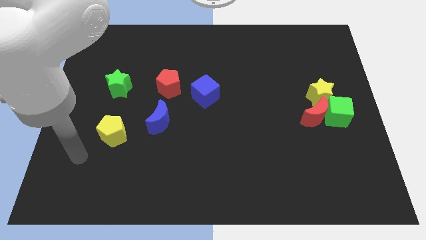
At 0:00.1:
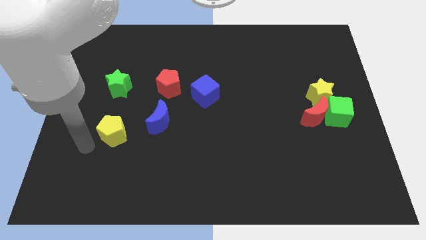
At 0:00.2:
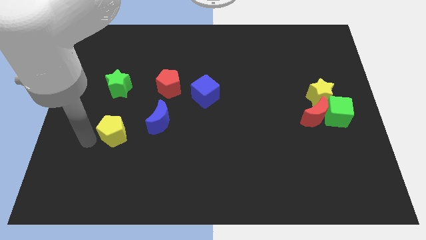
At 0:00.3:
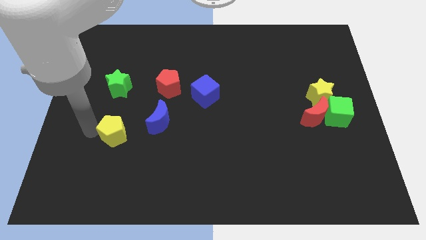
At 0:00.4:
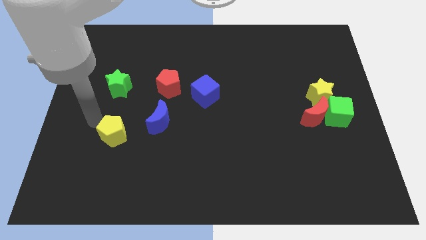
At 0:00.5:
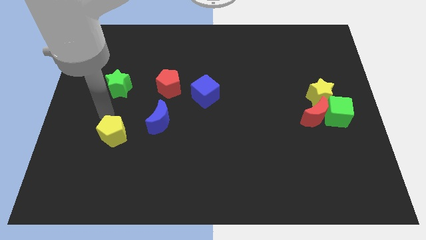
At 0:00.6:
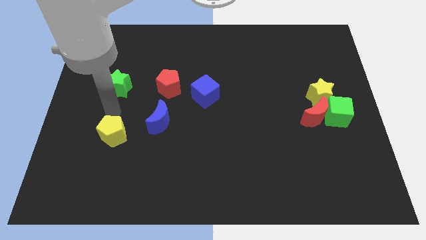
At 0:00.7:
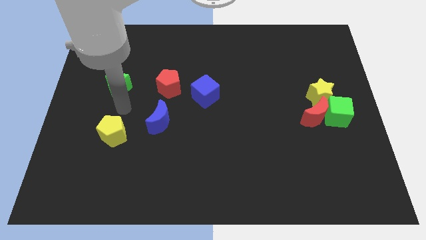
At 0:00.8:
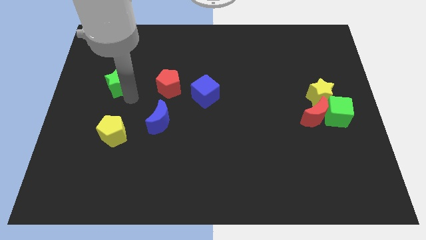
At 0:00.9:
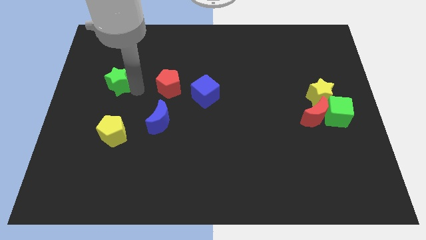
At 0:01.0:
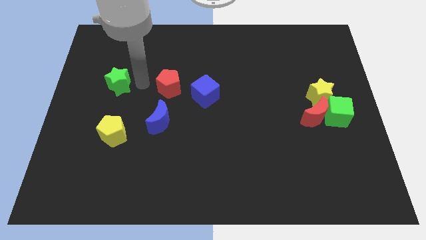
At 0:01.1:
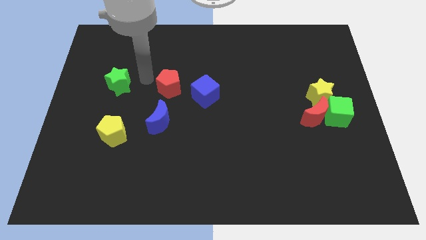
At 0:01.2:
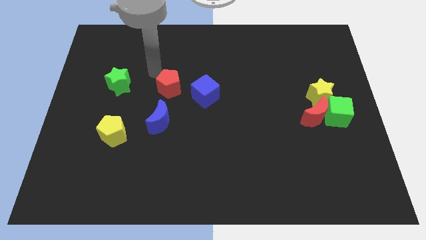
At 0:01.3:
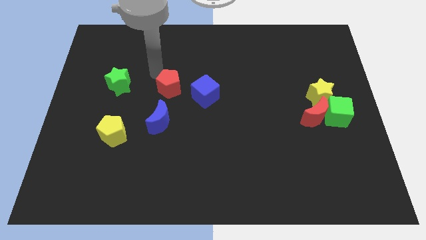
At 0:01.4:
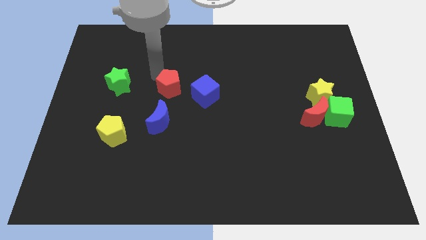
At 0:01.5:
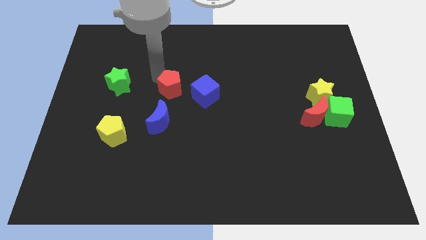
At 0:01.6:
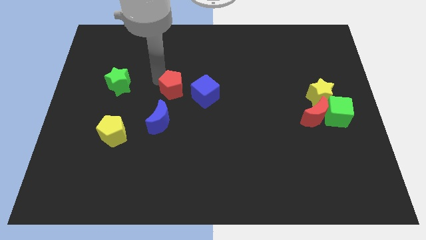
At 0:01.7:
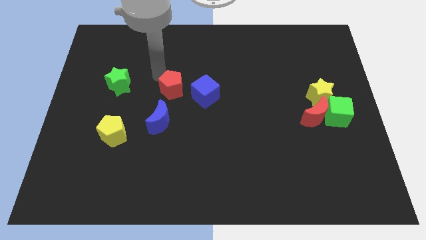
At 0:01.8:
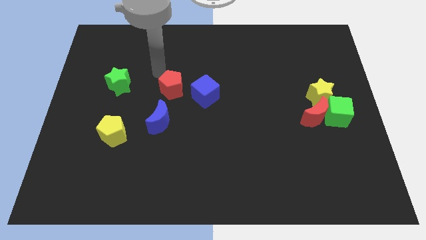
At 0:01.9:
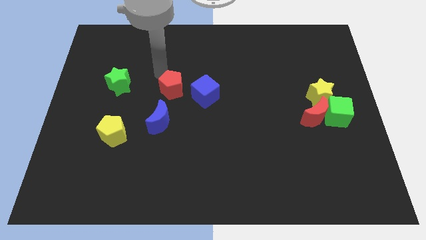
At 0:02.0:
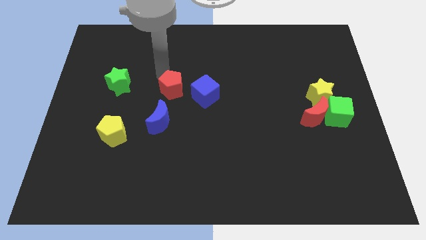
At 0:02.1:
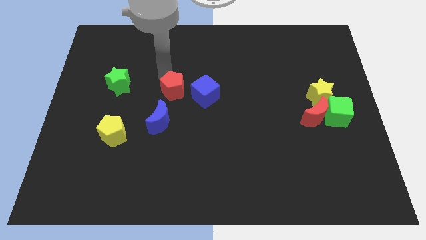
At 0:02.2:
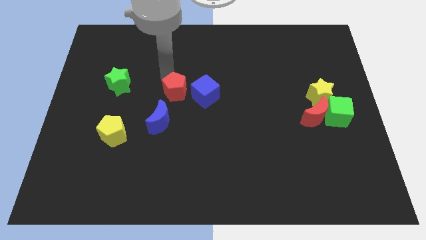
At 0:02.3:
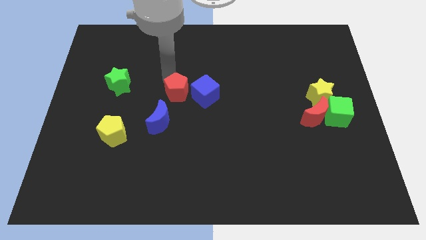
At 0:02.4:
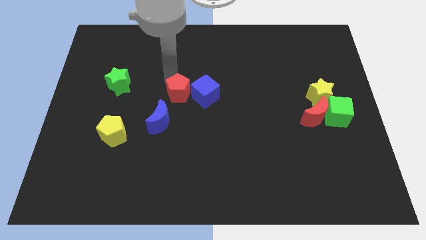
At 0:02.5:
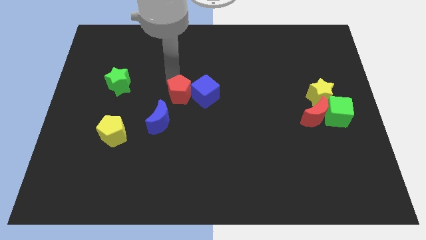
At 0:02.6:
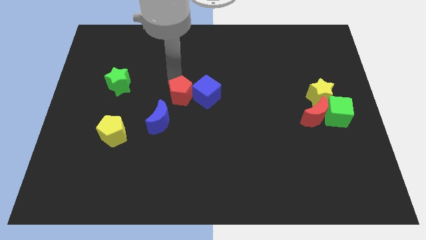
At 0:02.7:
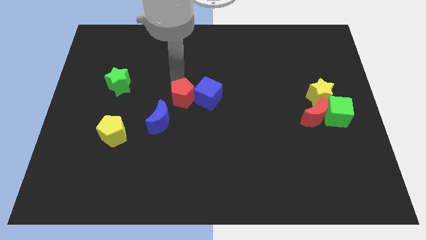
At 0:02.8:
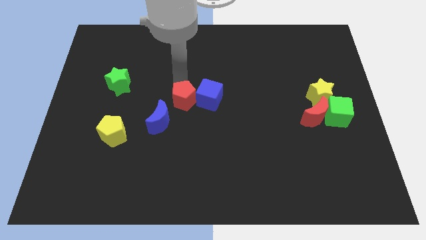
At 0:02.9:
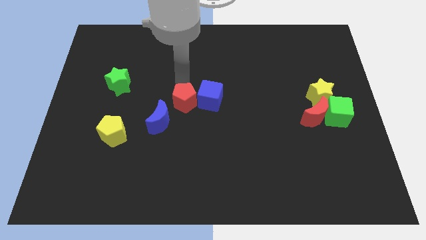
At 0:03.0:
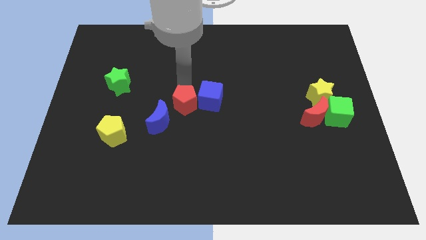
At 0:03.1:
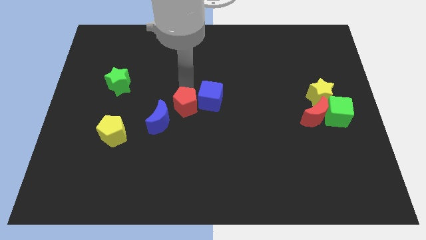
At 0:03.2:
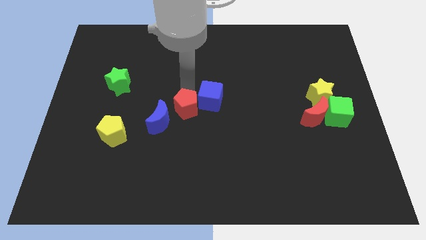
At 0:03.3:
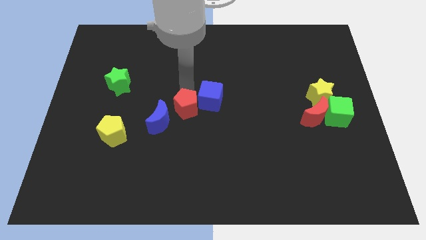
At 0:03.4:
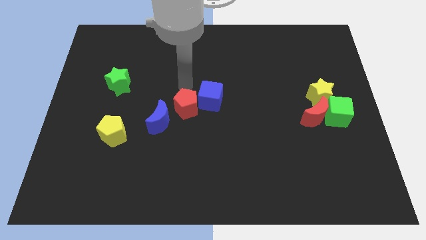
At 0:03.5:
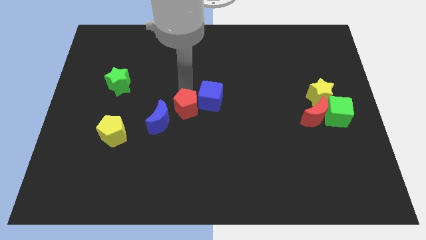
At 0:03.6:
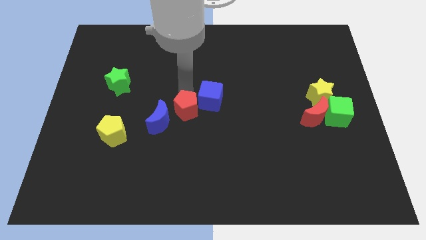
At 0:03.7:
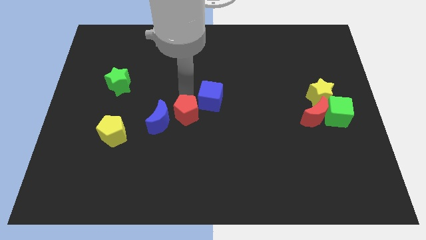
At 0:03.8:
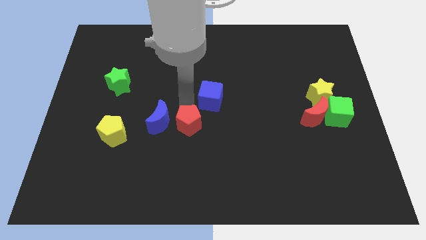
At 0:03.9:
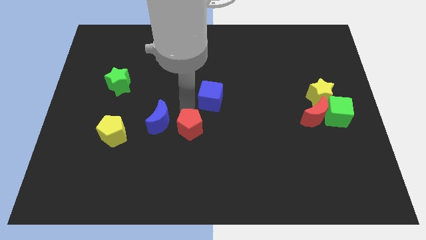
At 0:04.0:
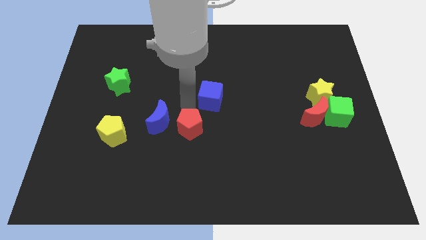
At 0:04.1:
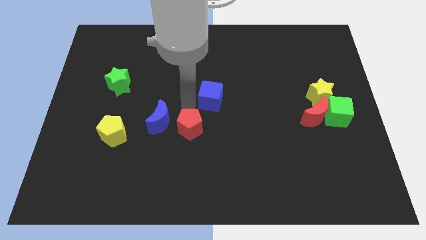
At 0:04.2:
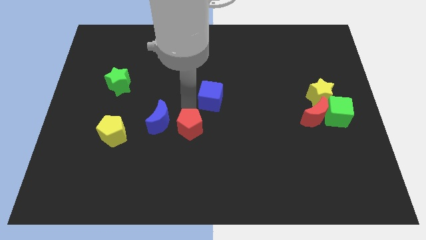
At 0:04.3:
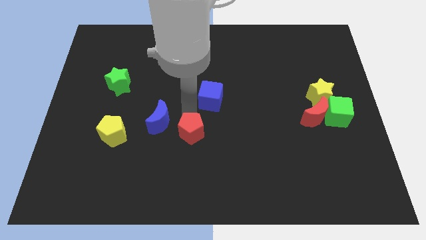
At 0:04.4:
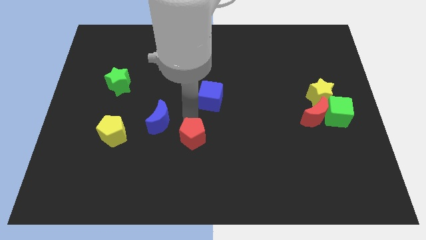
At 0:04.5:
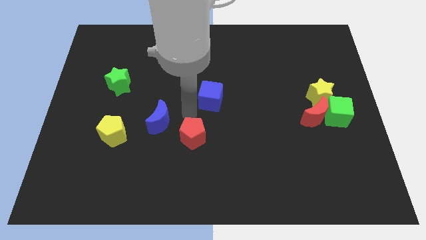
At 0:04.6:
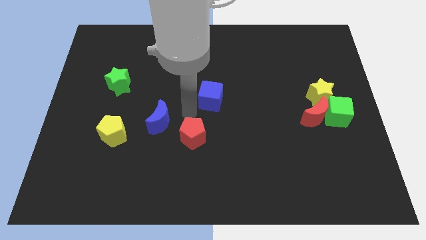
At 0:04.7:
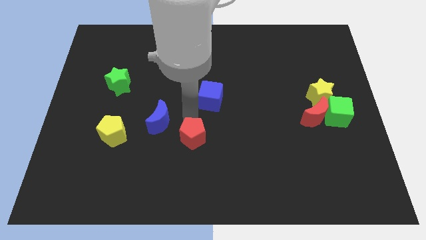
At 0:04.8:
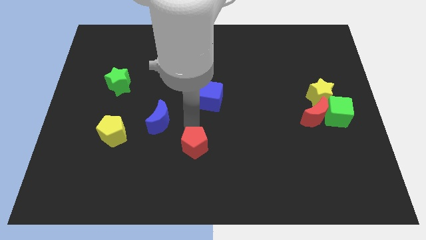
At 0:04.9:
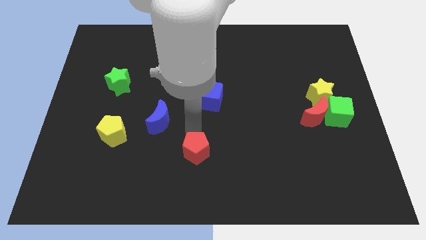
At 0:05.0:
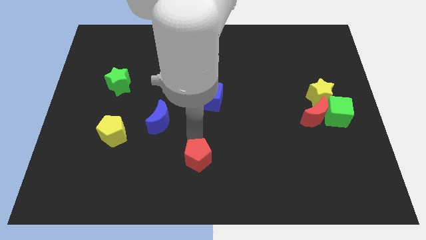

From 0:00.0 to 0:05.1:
move the red pentagon to the bottom side

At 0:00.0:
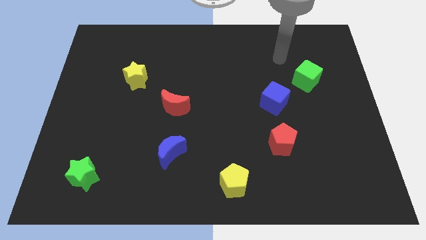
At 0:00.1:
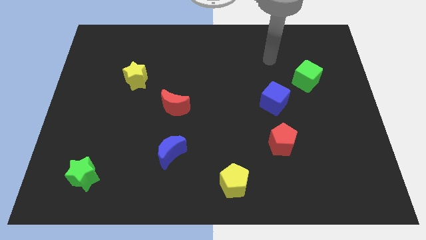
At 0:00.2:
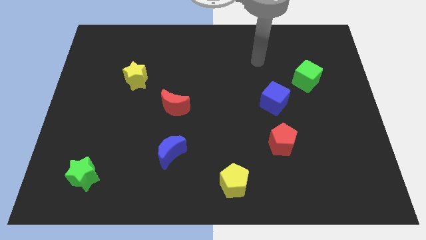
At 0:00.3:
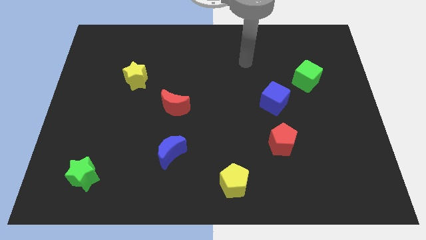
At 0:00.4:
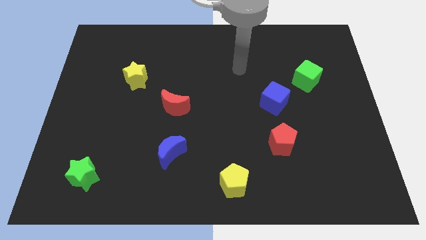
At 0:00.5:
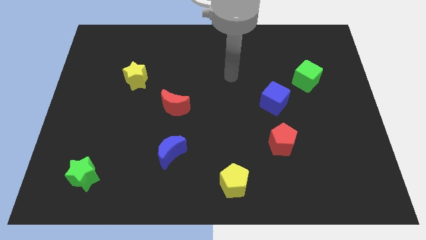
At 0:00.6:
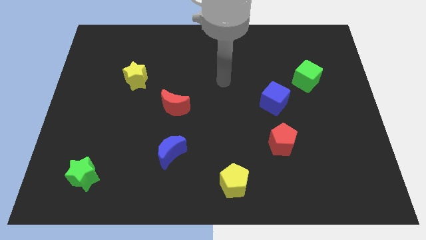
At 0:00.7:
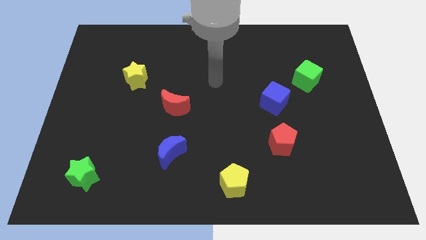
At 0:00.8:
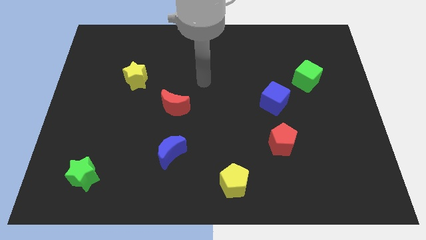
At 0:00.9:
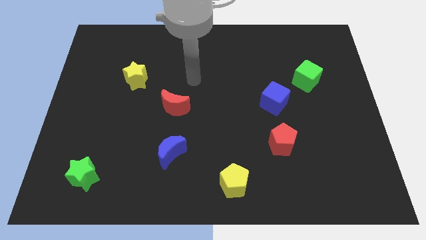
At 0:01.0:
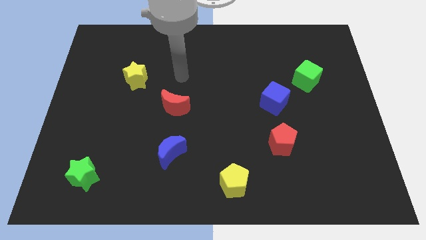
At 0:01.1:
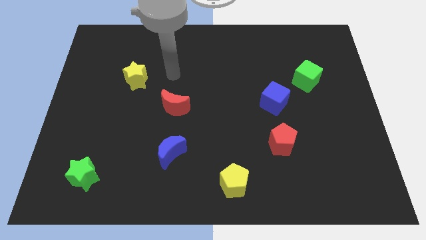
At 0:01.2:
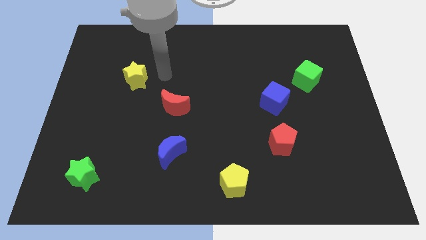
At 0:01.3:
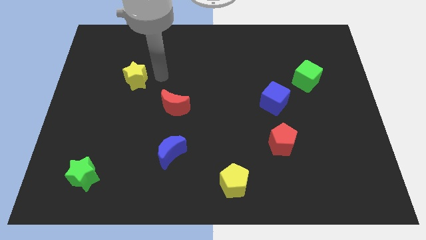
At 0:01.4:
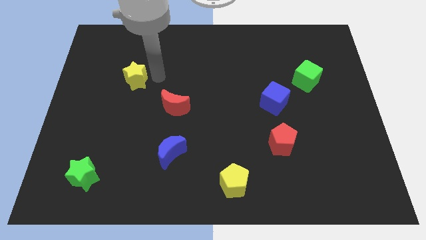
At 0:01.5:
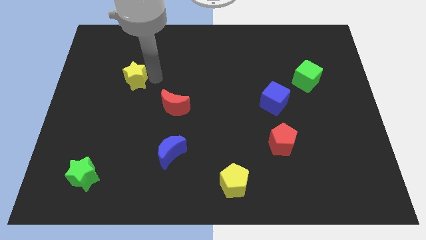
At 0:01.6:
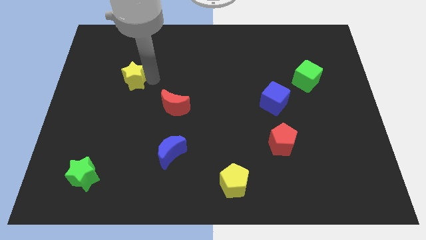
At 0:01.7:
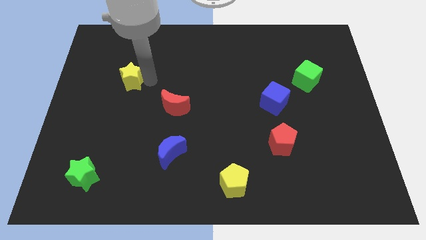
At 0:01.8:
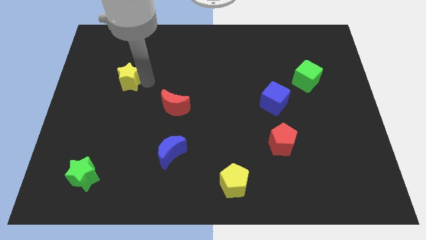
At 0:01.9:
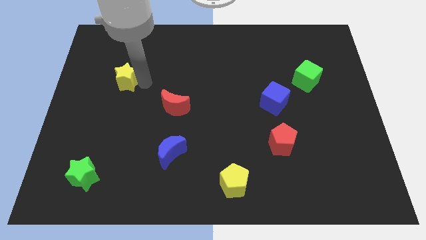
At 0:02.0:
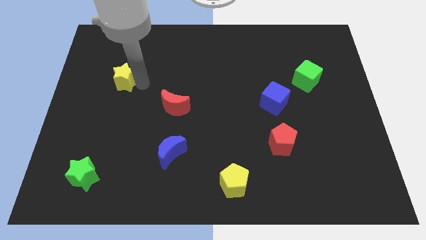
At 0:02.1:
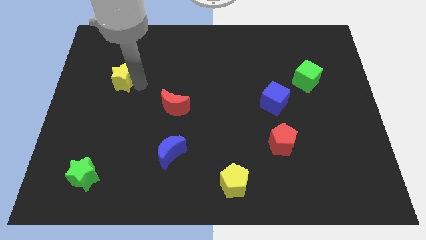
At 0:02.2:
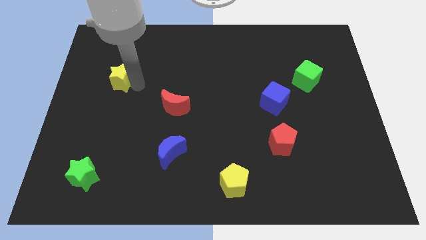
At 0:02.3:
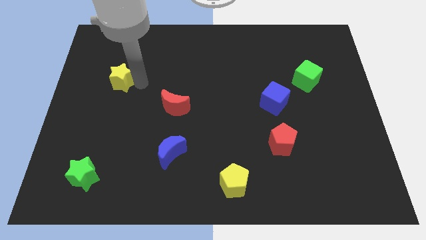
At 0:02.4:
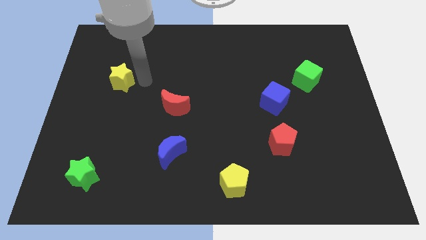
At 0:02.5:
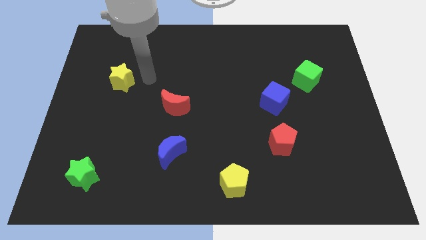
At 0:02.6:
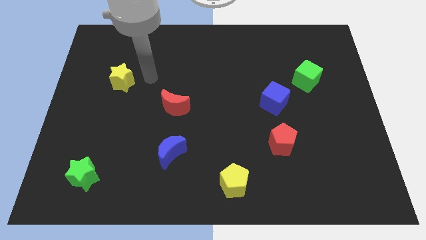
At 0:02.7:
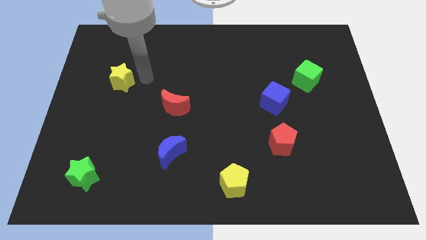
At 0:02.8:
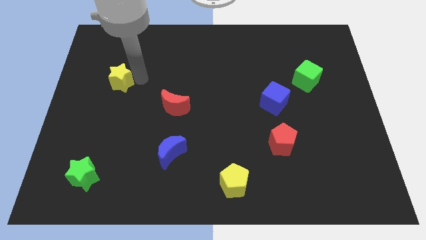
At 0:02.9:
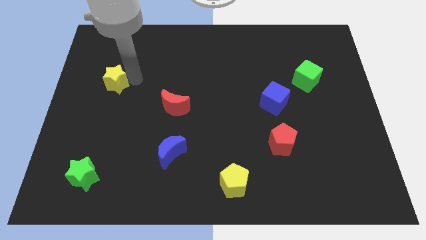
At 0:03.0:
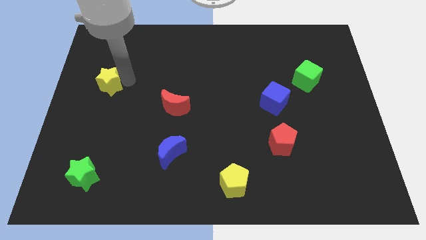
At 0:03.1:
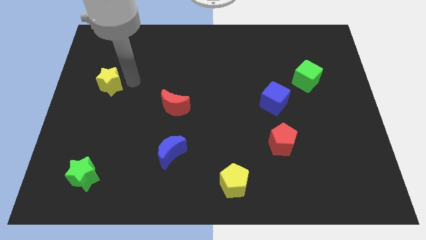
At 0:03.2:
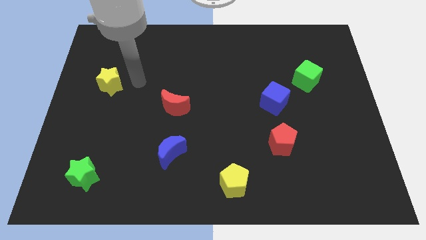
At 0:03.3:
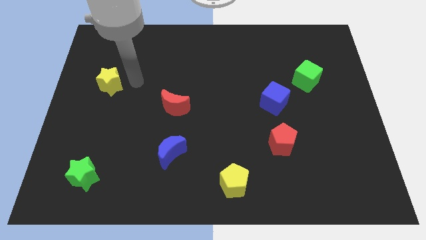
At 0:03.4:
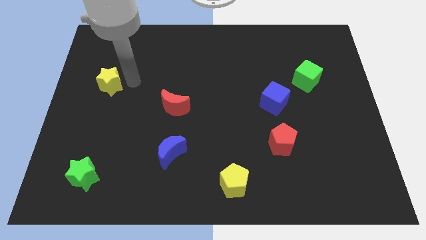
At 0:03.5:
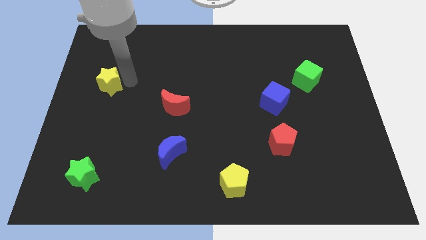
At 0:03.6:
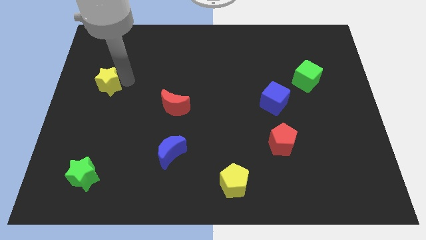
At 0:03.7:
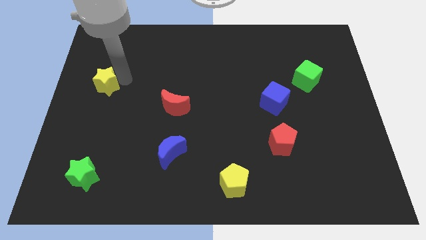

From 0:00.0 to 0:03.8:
push the yellow star to the left side of the board
